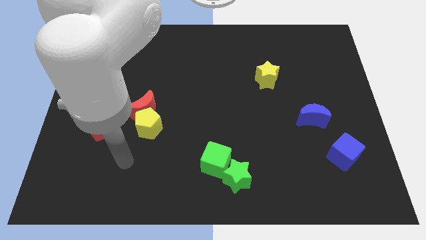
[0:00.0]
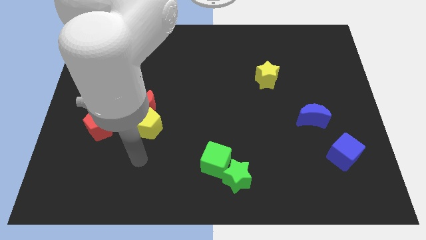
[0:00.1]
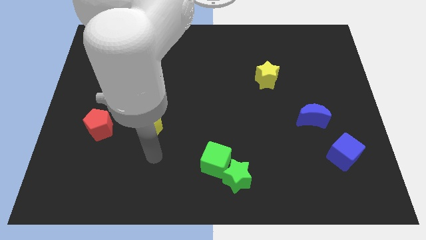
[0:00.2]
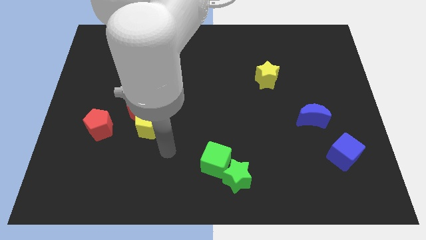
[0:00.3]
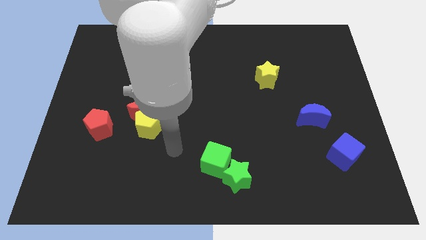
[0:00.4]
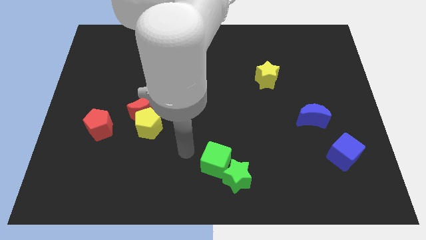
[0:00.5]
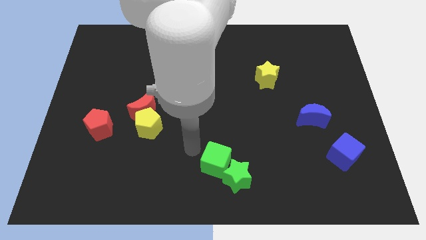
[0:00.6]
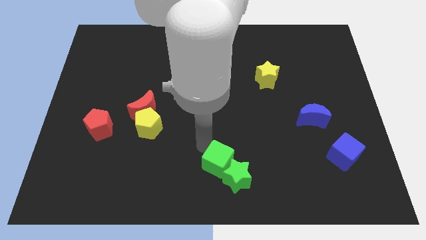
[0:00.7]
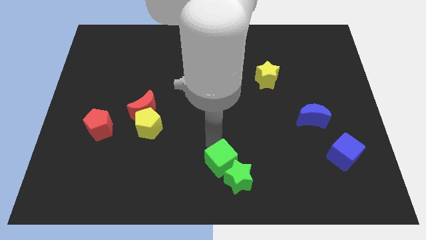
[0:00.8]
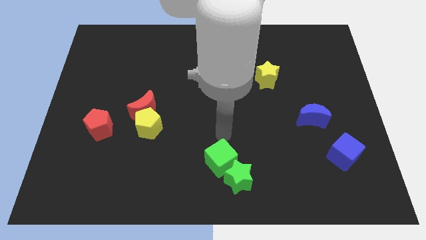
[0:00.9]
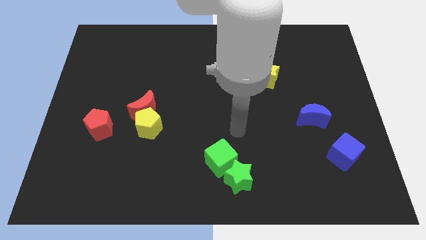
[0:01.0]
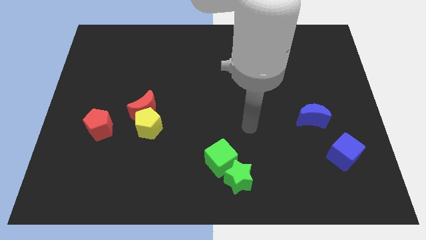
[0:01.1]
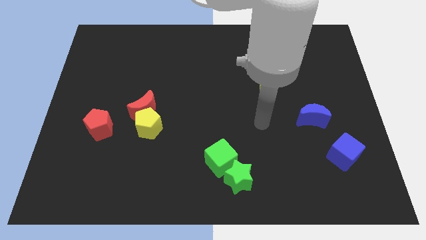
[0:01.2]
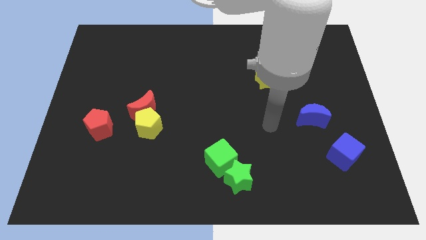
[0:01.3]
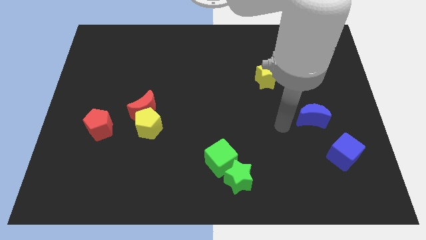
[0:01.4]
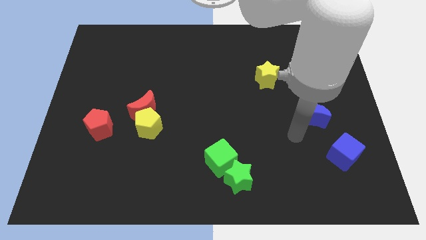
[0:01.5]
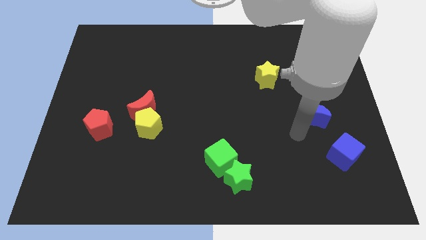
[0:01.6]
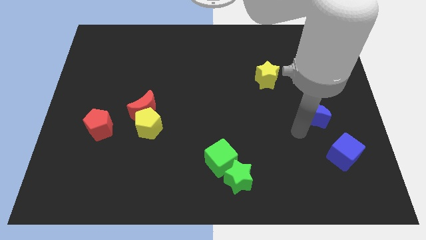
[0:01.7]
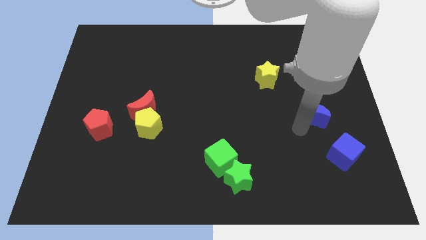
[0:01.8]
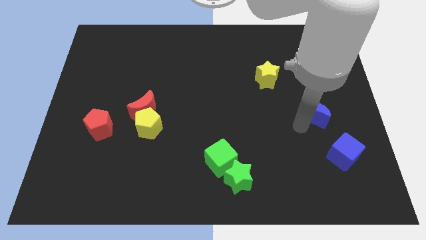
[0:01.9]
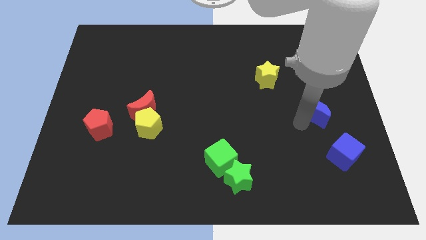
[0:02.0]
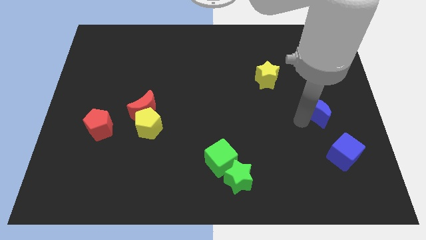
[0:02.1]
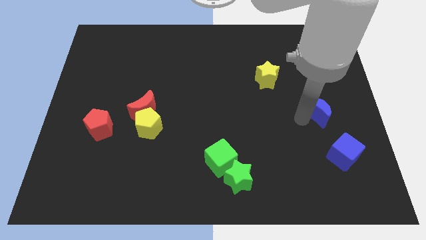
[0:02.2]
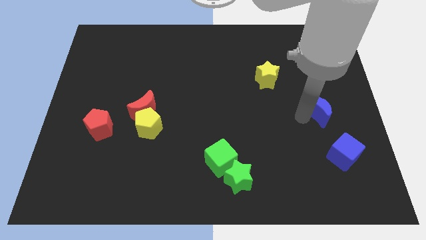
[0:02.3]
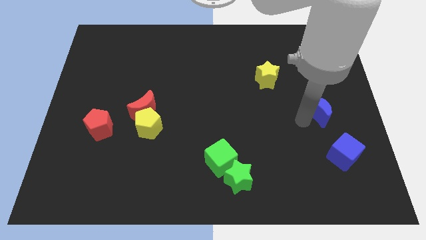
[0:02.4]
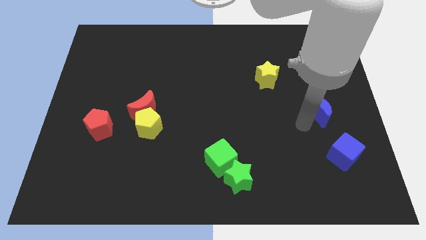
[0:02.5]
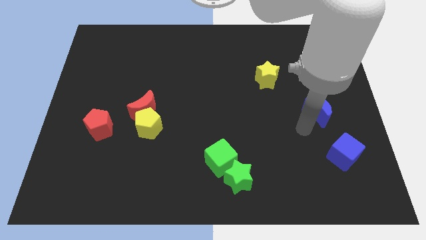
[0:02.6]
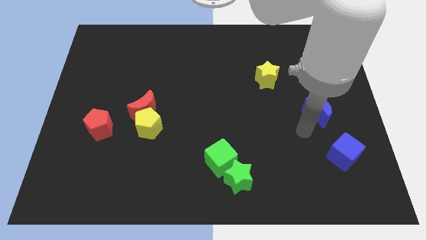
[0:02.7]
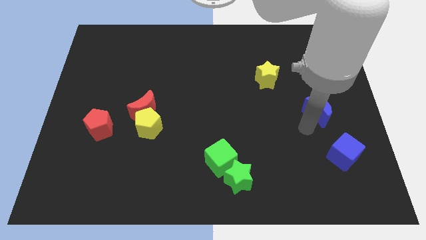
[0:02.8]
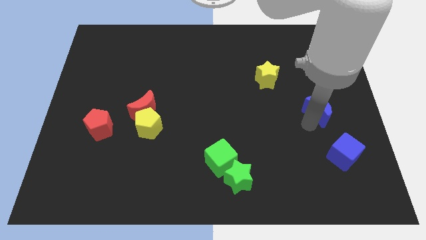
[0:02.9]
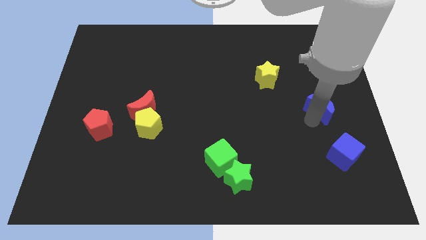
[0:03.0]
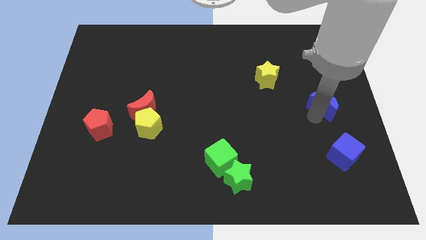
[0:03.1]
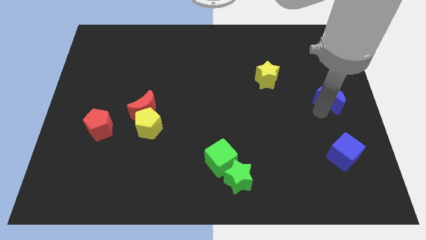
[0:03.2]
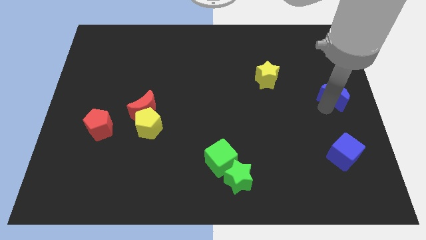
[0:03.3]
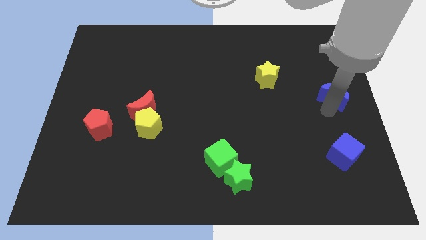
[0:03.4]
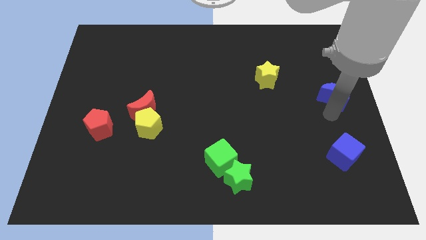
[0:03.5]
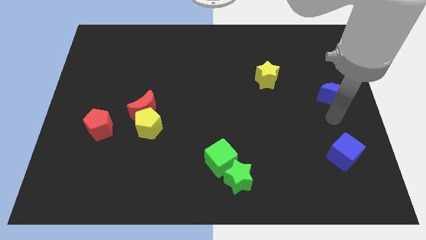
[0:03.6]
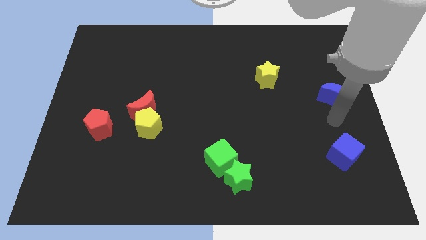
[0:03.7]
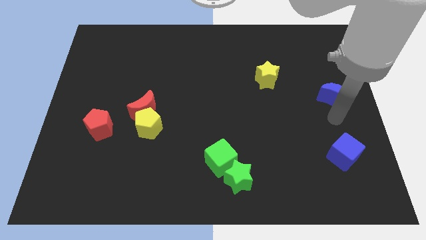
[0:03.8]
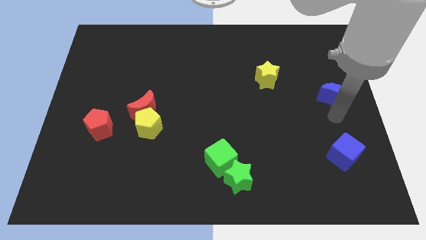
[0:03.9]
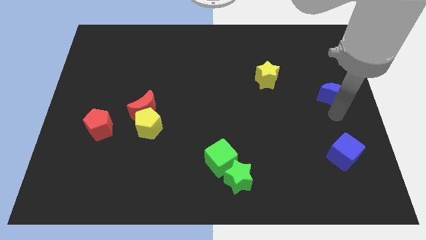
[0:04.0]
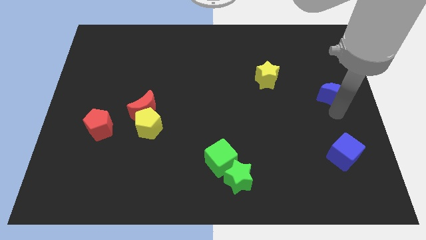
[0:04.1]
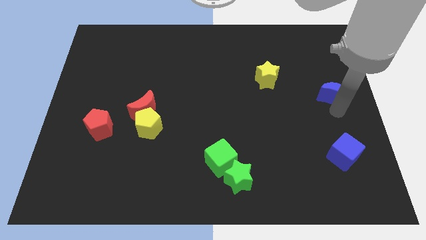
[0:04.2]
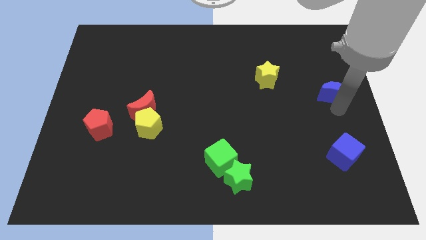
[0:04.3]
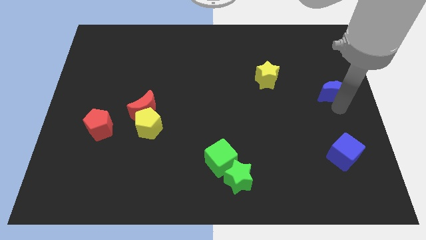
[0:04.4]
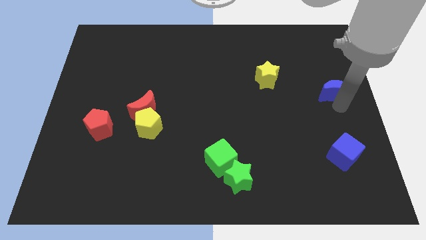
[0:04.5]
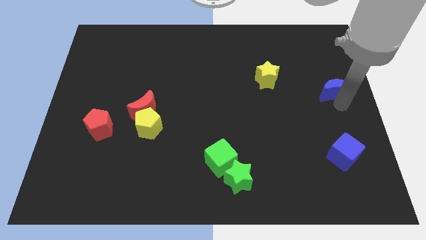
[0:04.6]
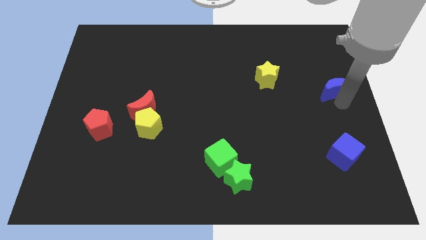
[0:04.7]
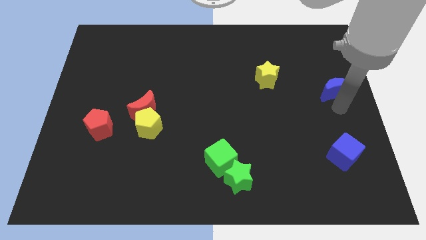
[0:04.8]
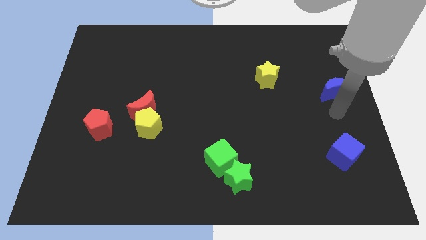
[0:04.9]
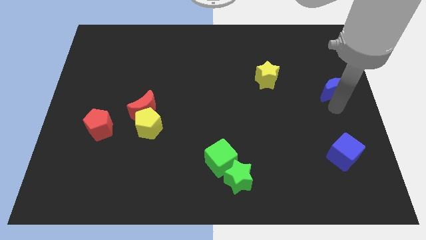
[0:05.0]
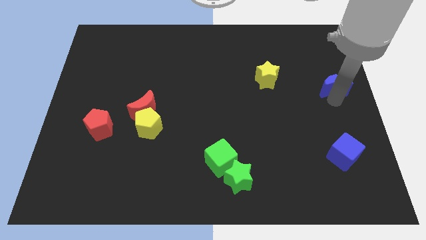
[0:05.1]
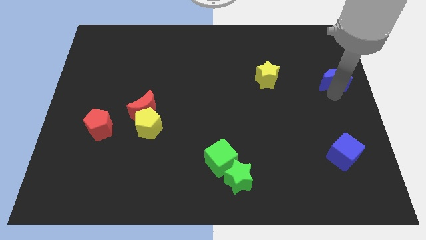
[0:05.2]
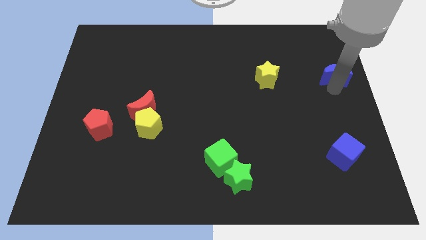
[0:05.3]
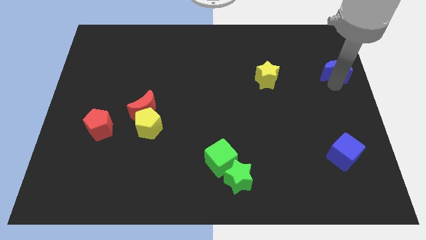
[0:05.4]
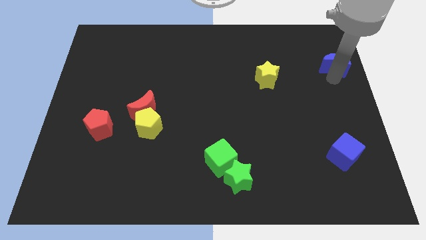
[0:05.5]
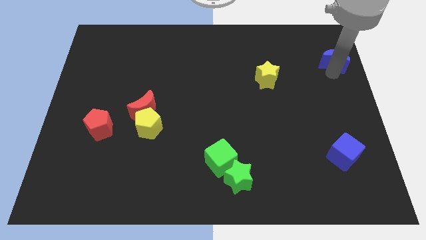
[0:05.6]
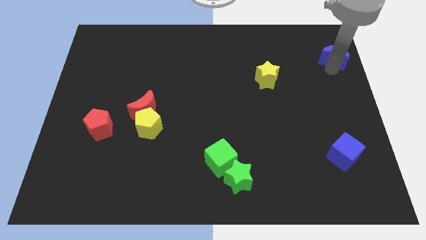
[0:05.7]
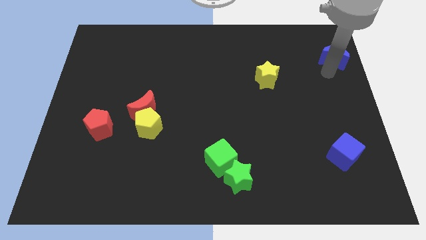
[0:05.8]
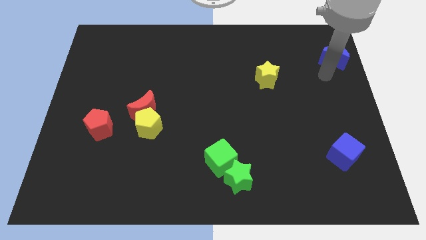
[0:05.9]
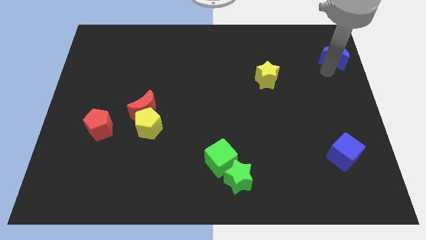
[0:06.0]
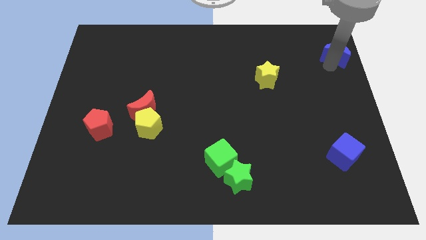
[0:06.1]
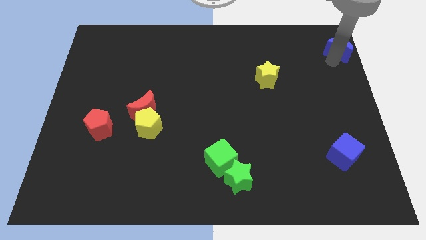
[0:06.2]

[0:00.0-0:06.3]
move the blue moon to the top right corner
